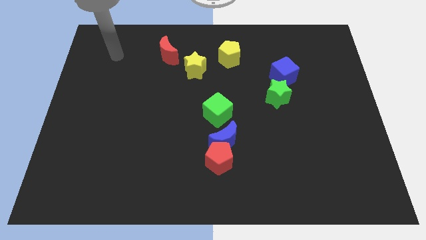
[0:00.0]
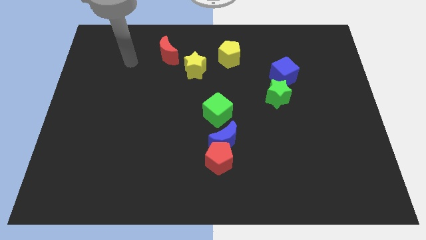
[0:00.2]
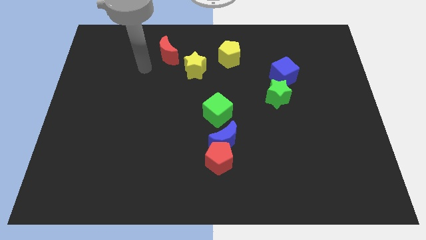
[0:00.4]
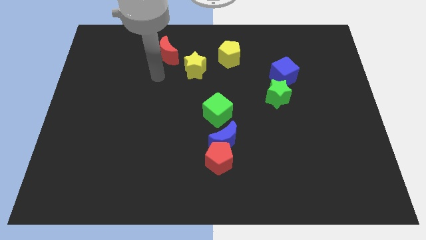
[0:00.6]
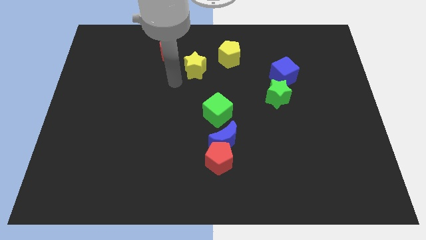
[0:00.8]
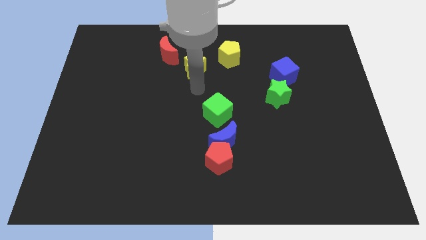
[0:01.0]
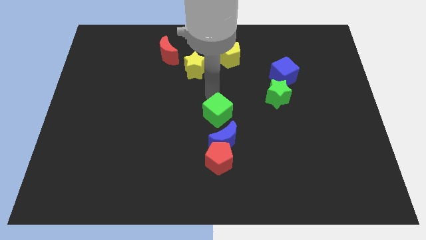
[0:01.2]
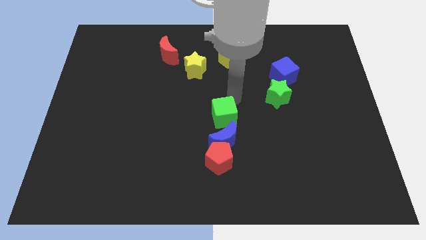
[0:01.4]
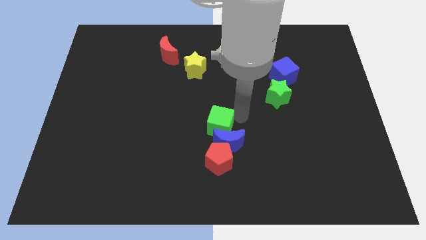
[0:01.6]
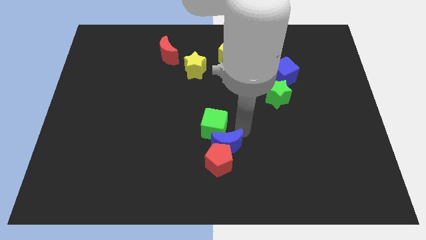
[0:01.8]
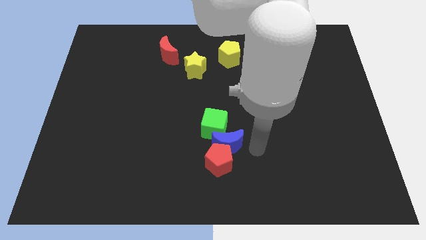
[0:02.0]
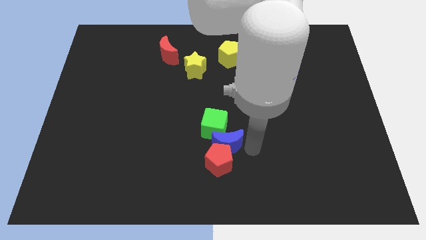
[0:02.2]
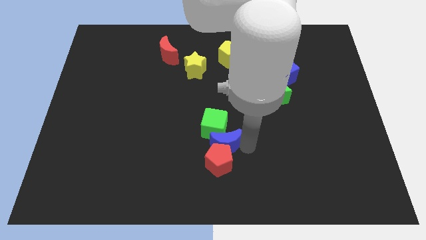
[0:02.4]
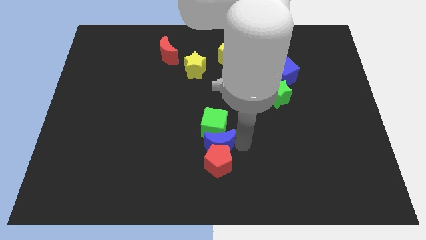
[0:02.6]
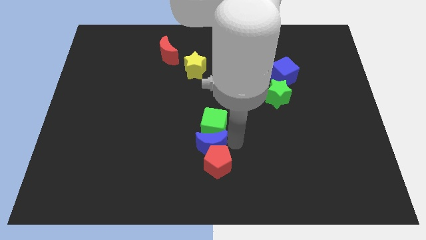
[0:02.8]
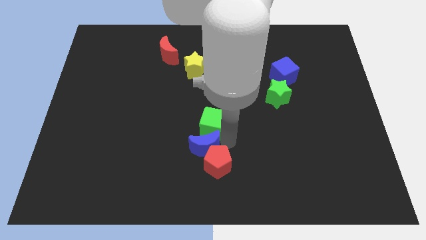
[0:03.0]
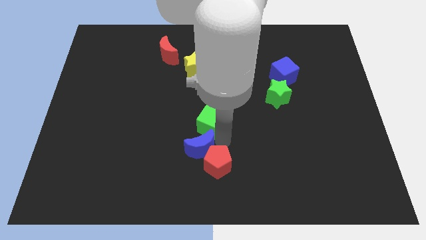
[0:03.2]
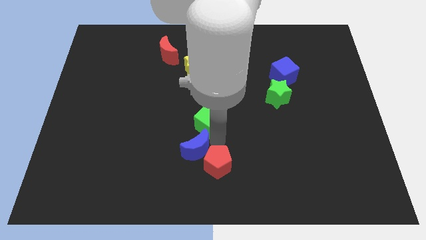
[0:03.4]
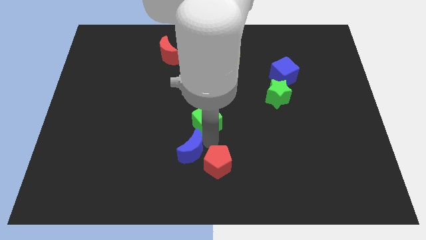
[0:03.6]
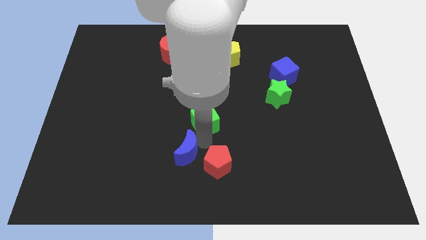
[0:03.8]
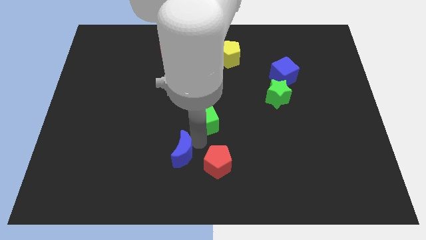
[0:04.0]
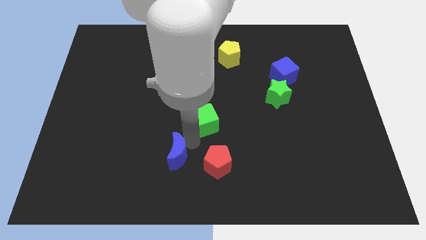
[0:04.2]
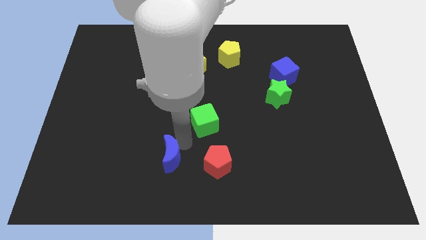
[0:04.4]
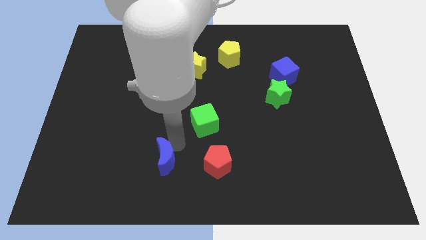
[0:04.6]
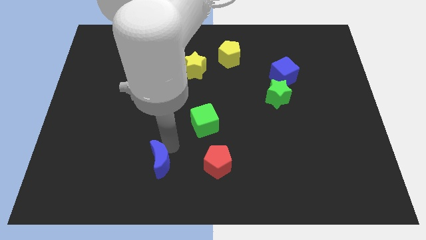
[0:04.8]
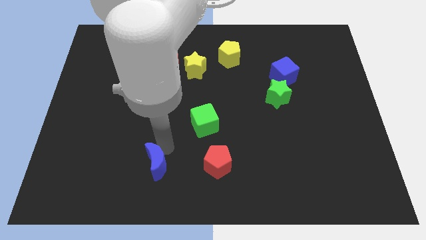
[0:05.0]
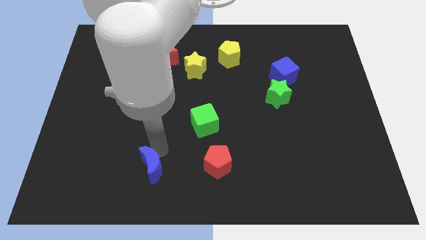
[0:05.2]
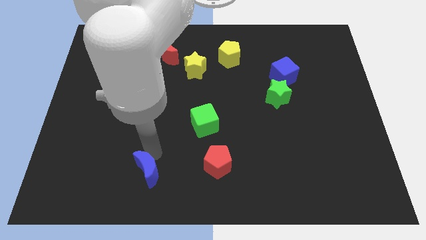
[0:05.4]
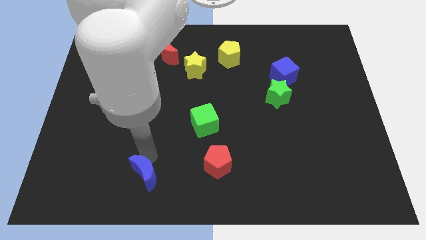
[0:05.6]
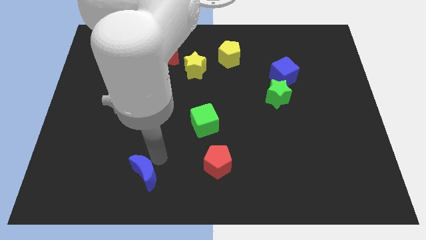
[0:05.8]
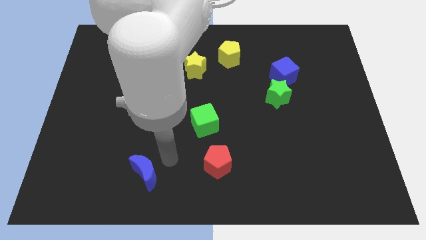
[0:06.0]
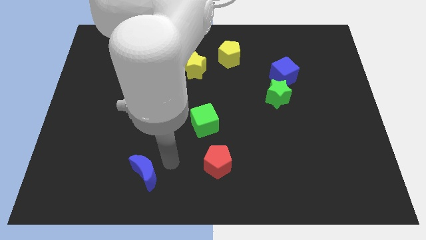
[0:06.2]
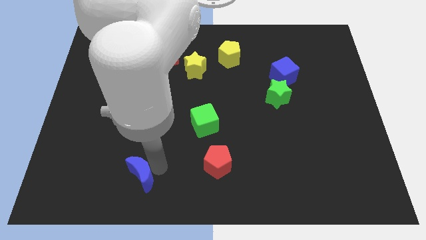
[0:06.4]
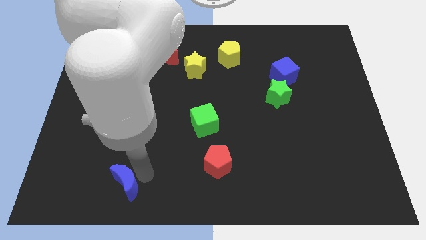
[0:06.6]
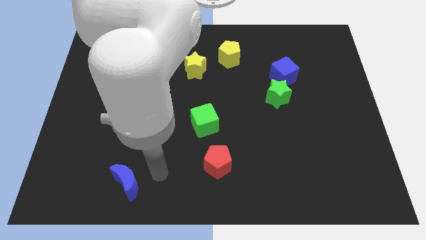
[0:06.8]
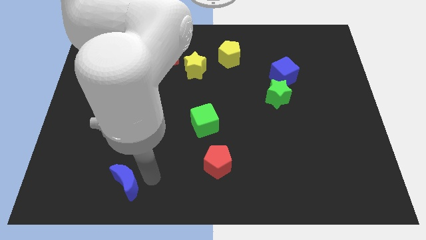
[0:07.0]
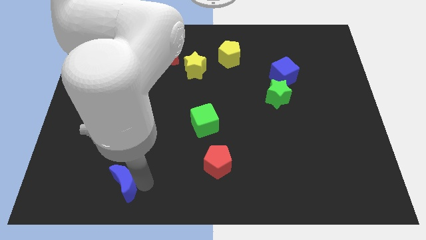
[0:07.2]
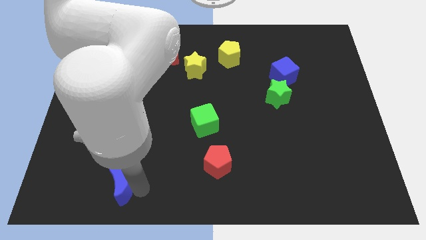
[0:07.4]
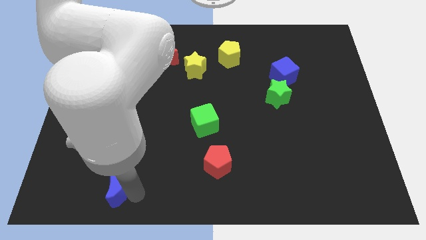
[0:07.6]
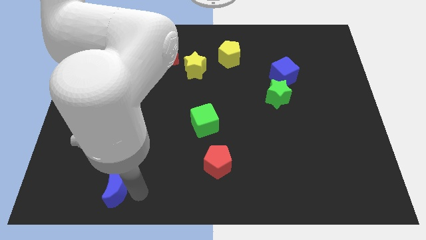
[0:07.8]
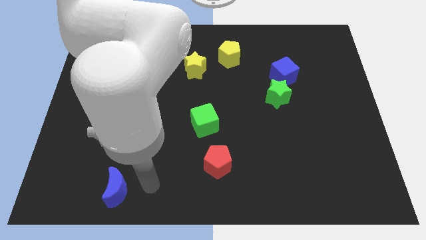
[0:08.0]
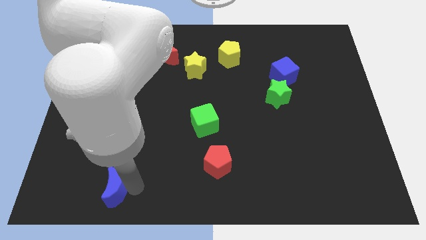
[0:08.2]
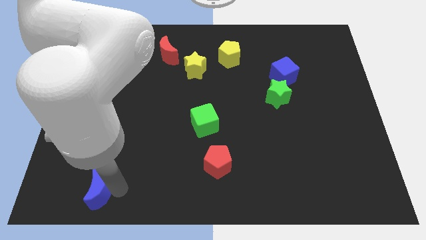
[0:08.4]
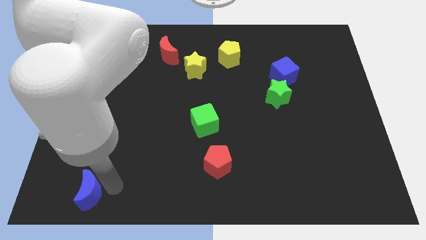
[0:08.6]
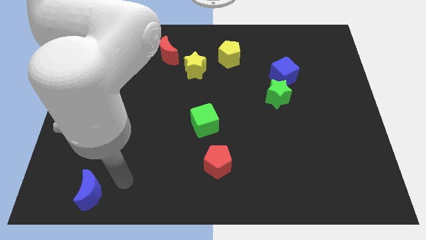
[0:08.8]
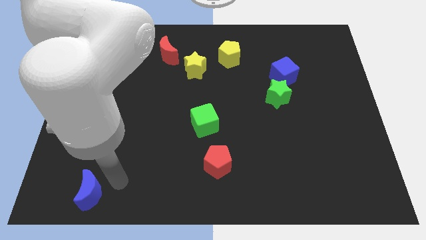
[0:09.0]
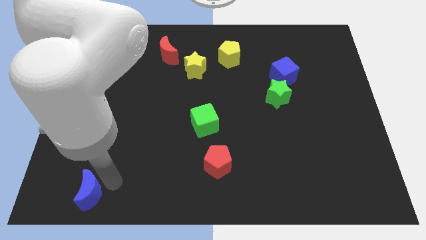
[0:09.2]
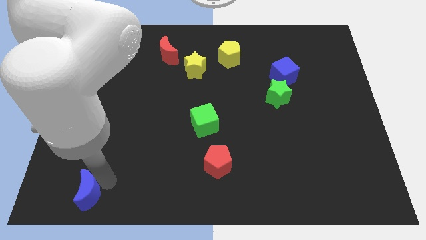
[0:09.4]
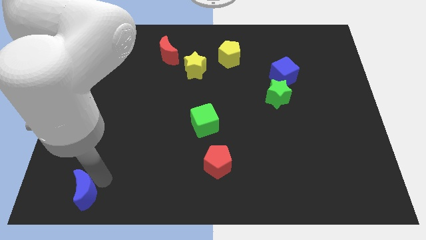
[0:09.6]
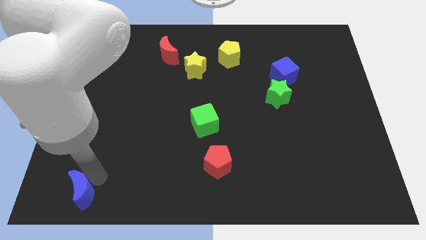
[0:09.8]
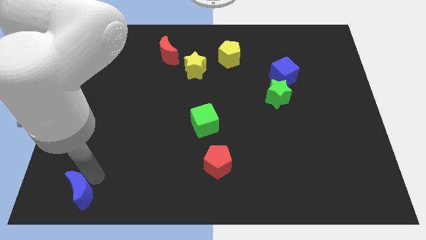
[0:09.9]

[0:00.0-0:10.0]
slide the blue moon to the bottom left corner

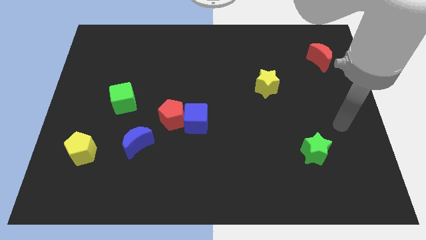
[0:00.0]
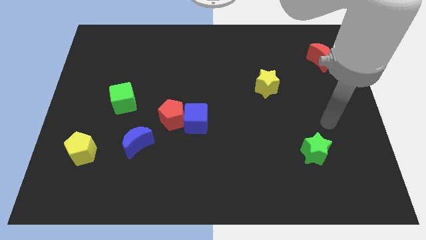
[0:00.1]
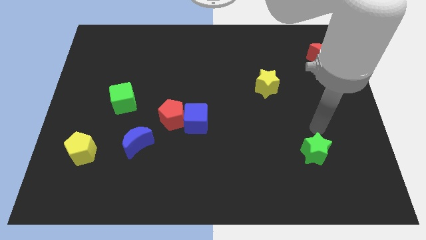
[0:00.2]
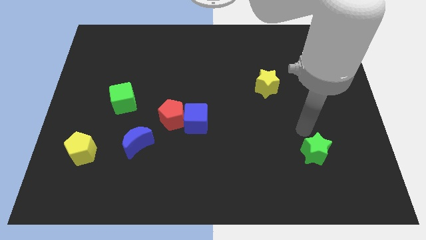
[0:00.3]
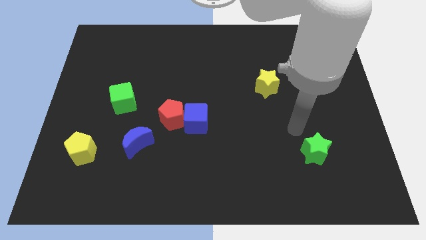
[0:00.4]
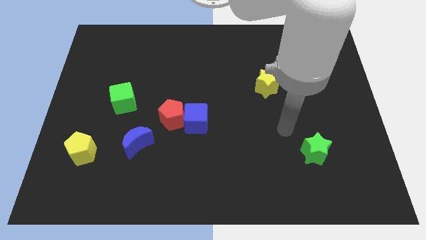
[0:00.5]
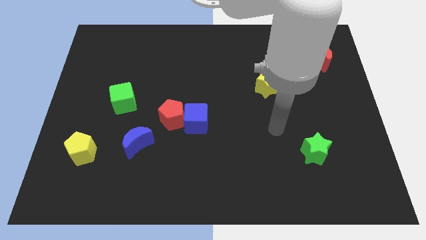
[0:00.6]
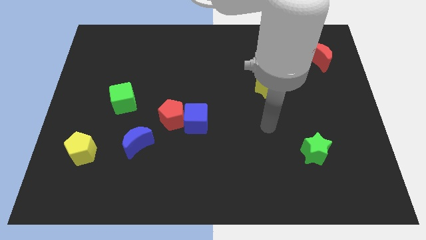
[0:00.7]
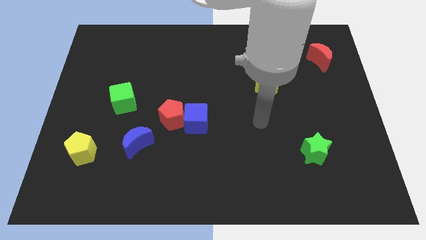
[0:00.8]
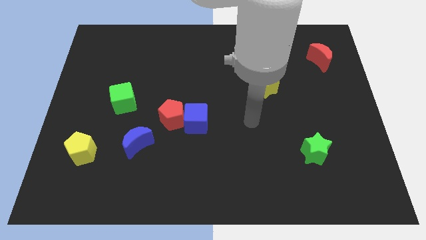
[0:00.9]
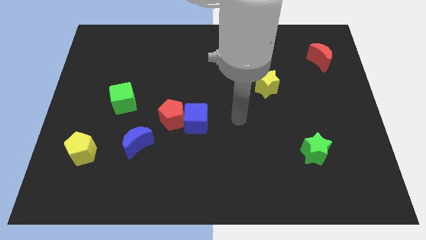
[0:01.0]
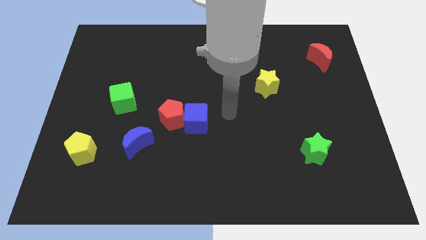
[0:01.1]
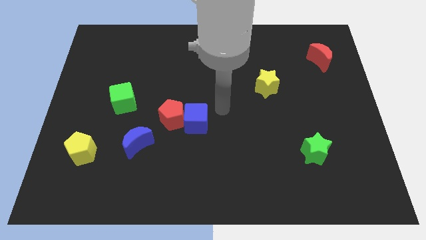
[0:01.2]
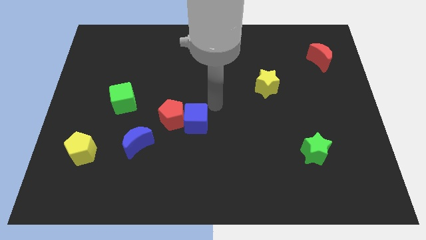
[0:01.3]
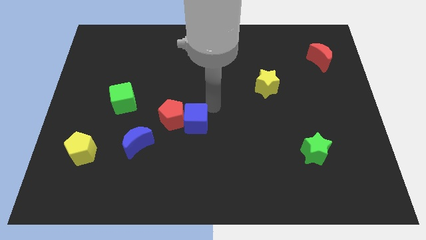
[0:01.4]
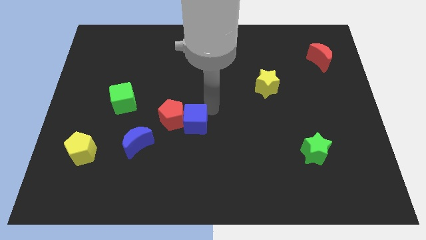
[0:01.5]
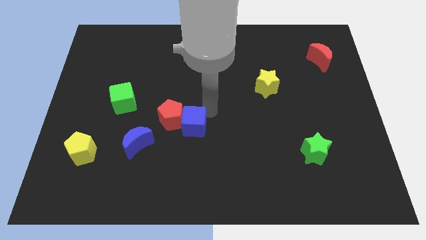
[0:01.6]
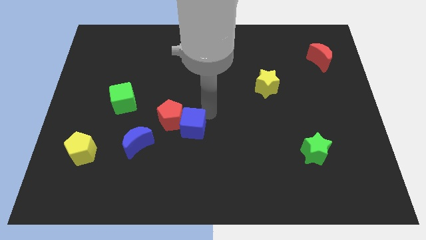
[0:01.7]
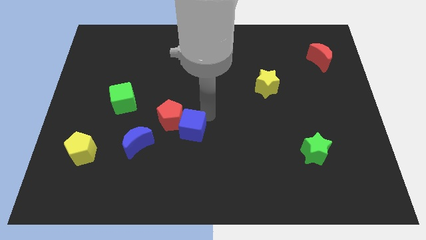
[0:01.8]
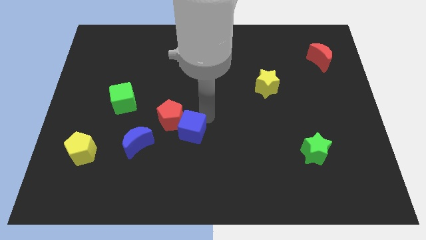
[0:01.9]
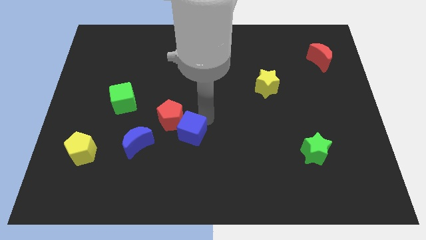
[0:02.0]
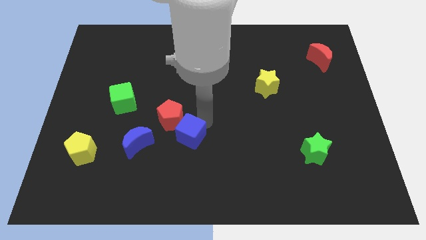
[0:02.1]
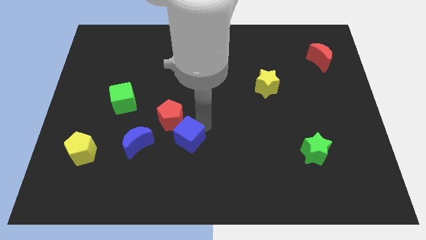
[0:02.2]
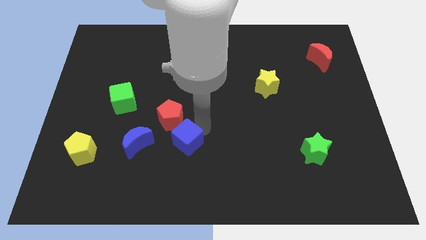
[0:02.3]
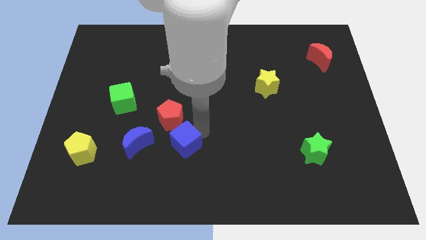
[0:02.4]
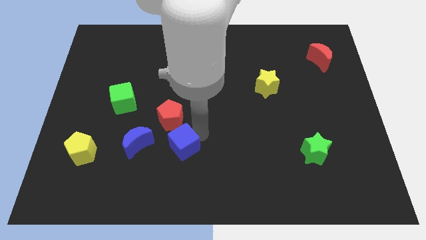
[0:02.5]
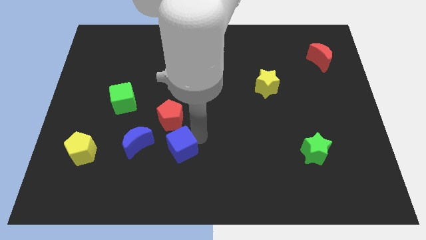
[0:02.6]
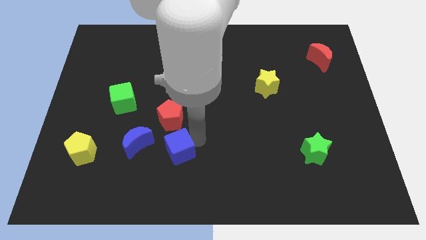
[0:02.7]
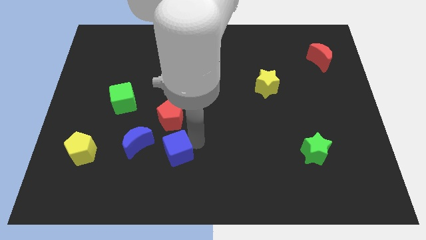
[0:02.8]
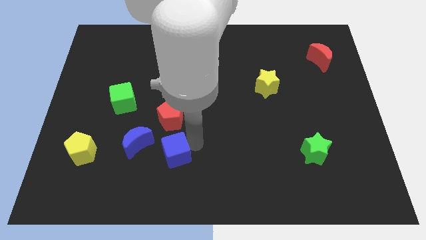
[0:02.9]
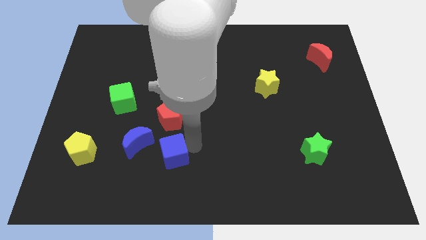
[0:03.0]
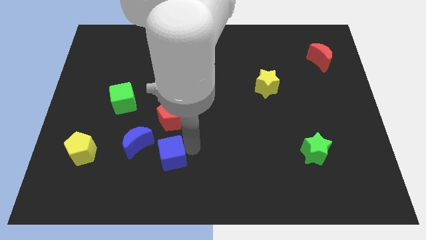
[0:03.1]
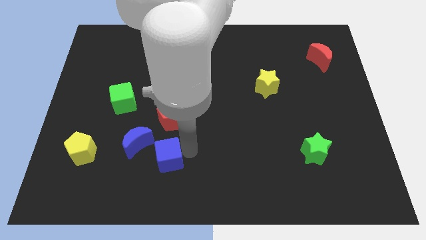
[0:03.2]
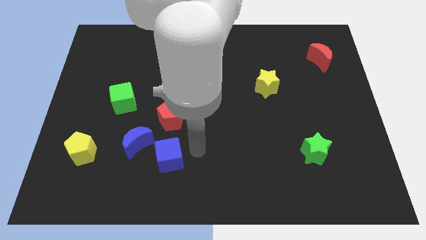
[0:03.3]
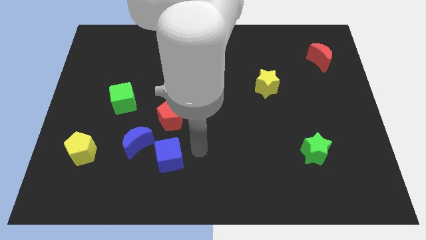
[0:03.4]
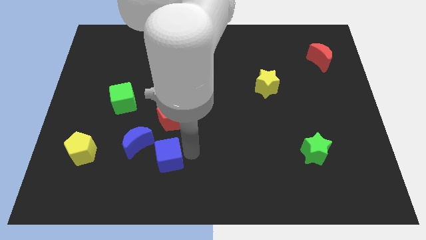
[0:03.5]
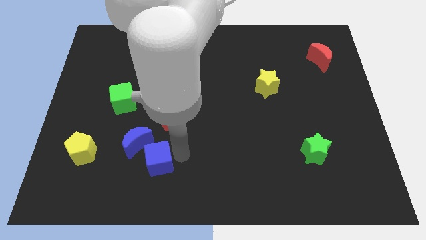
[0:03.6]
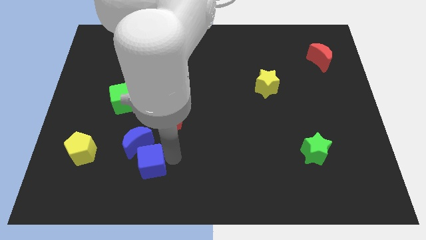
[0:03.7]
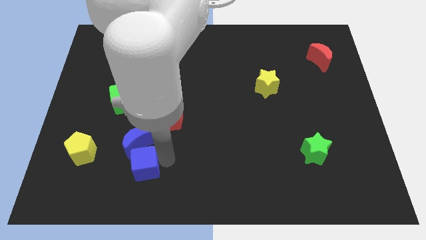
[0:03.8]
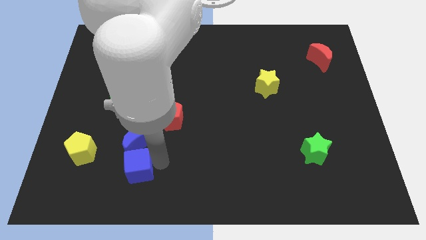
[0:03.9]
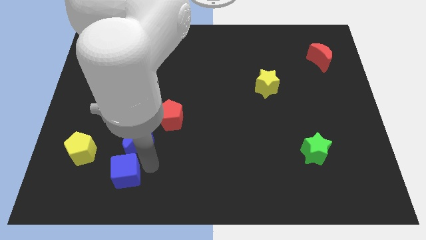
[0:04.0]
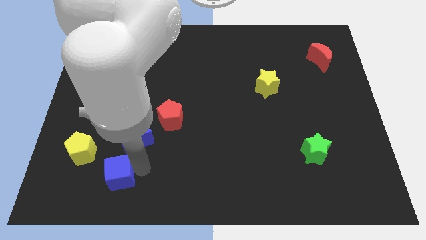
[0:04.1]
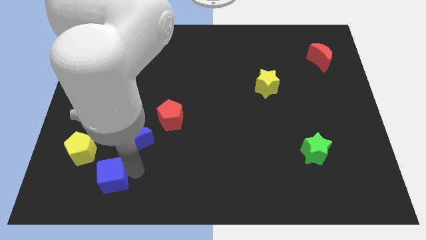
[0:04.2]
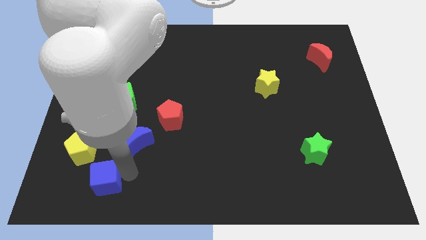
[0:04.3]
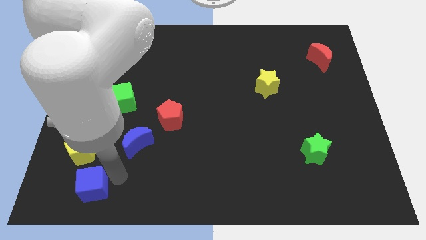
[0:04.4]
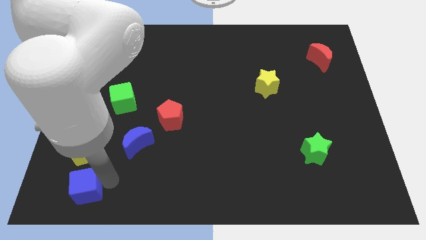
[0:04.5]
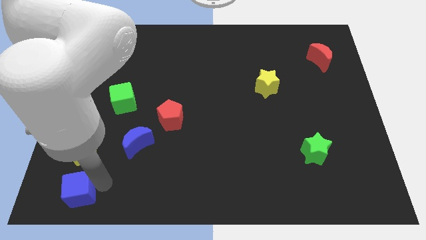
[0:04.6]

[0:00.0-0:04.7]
slide the blue cube to the bottom left of the board
